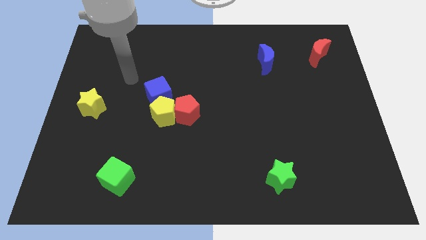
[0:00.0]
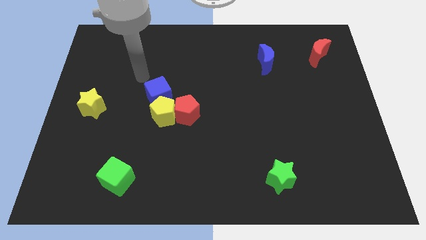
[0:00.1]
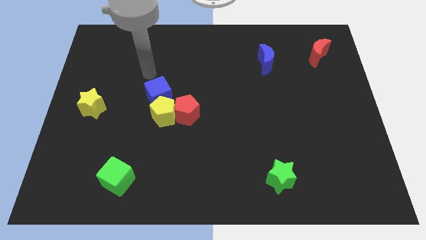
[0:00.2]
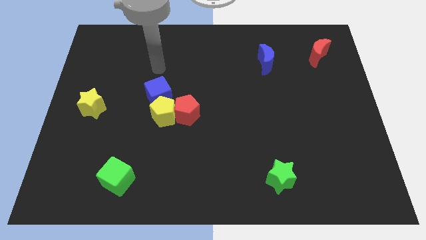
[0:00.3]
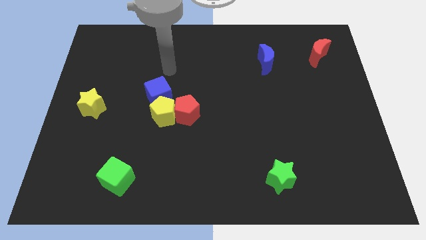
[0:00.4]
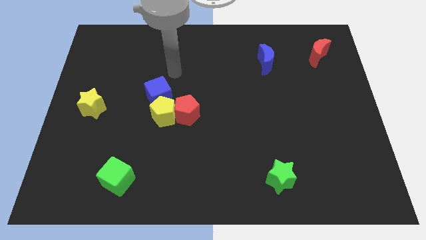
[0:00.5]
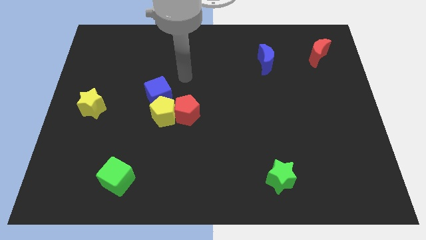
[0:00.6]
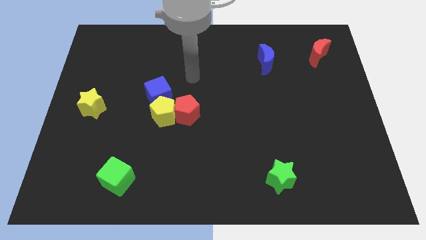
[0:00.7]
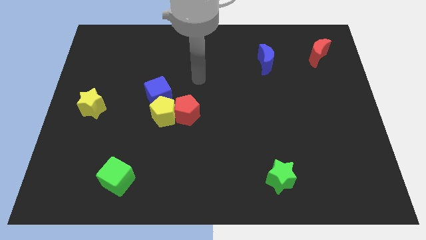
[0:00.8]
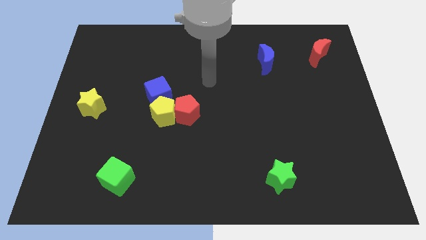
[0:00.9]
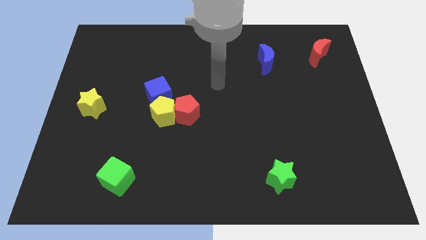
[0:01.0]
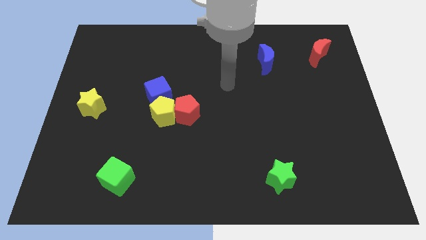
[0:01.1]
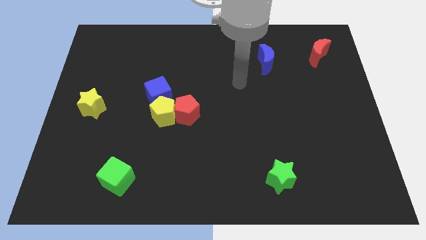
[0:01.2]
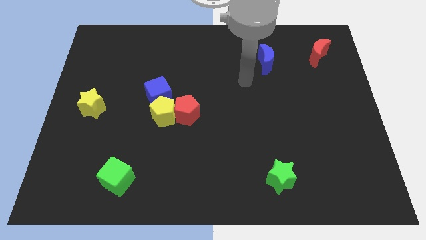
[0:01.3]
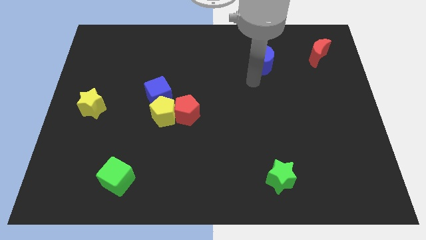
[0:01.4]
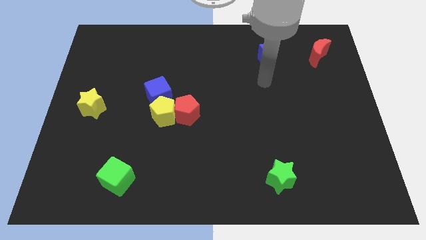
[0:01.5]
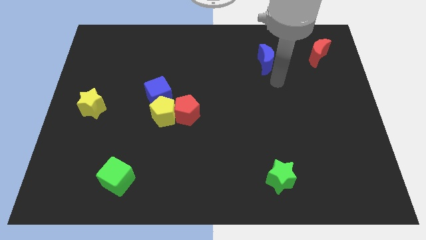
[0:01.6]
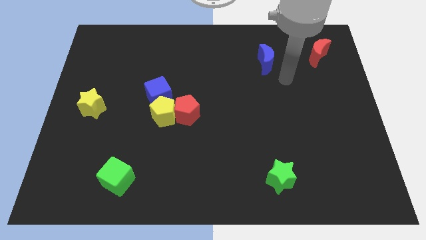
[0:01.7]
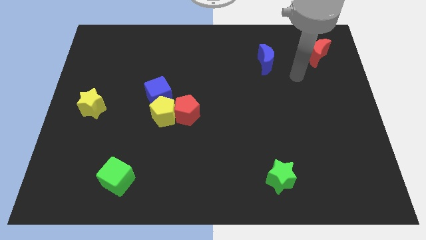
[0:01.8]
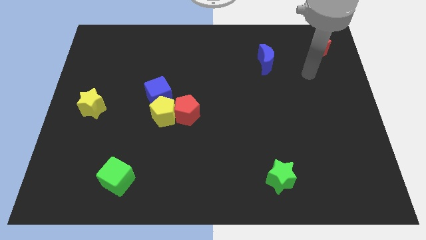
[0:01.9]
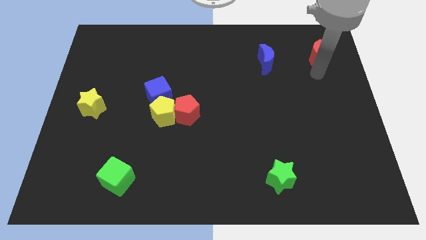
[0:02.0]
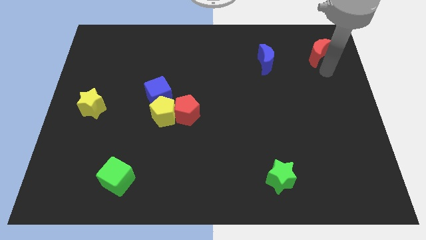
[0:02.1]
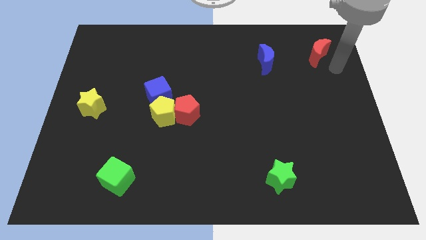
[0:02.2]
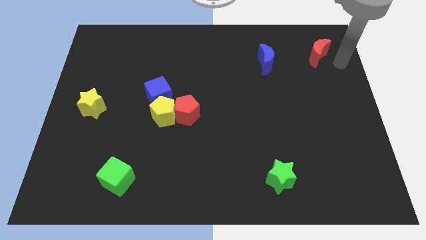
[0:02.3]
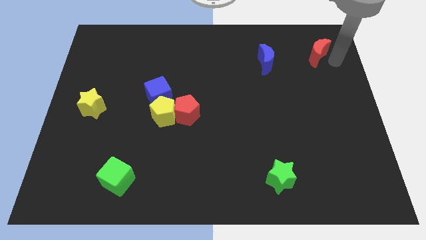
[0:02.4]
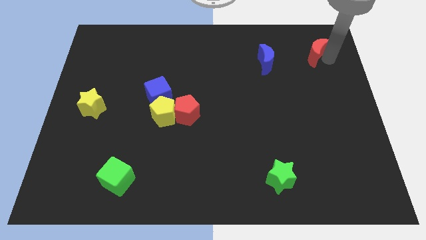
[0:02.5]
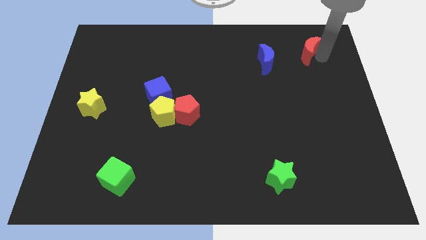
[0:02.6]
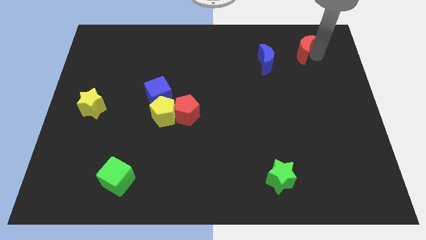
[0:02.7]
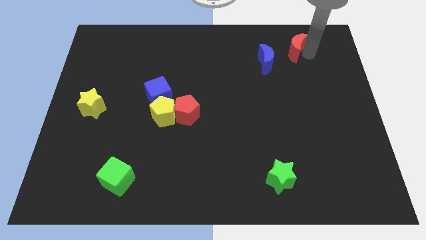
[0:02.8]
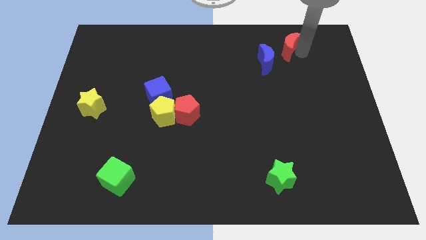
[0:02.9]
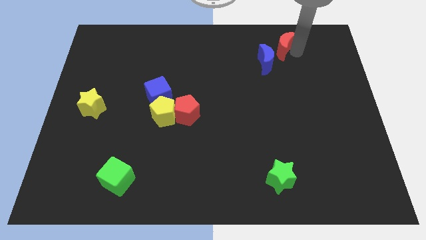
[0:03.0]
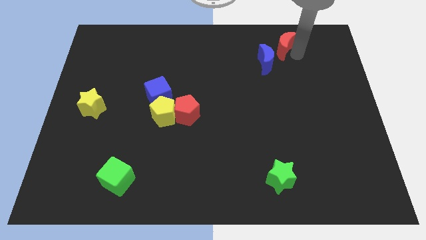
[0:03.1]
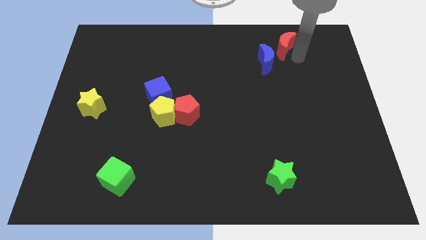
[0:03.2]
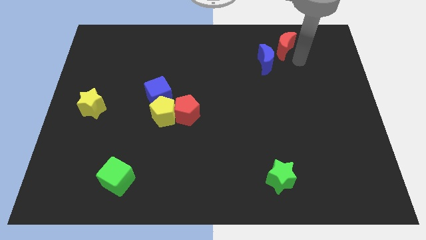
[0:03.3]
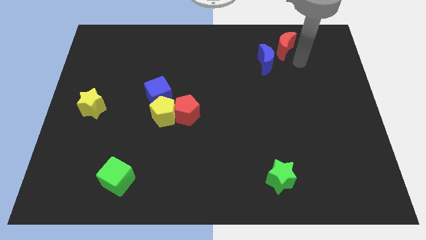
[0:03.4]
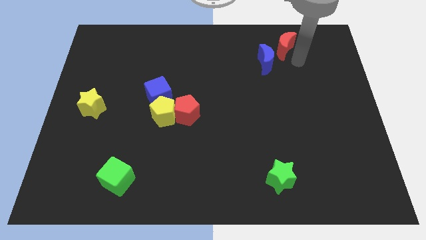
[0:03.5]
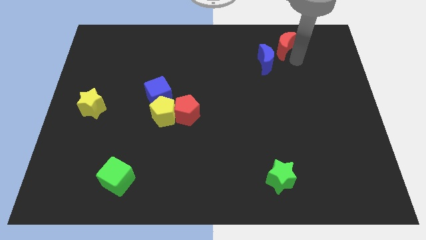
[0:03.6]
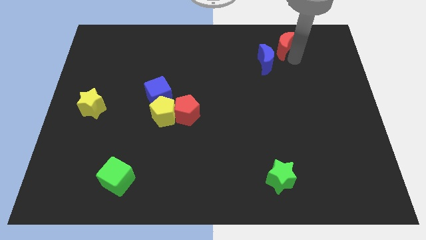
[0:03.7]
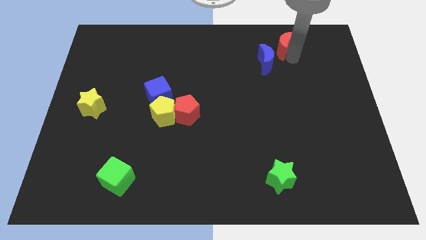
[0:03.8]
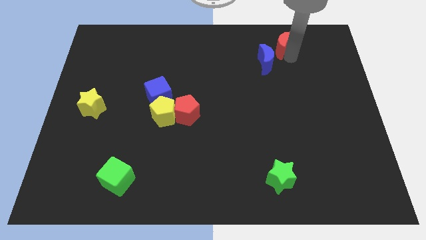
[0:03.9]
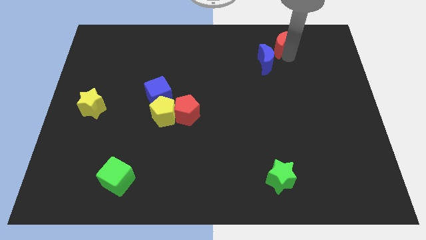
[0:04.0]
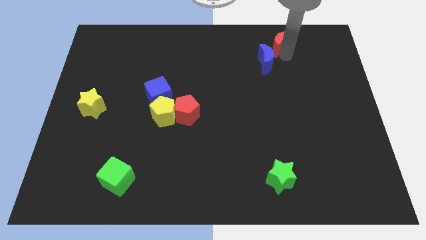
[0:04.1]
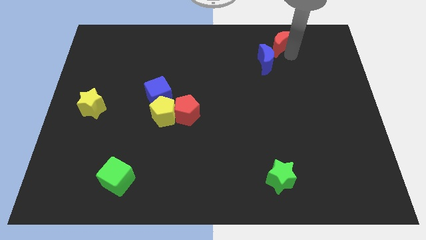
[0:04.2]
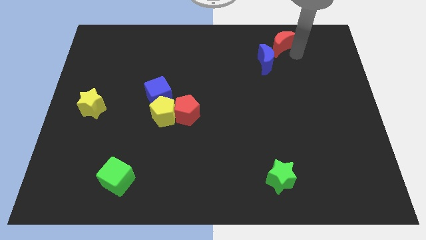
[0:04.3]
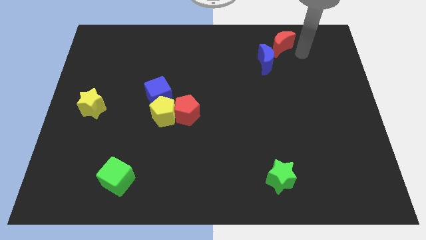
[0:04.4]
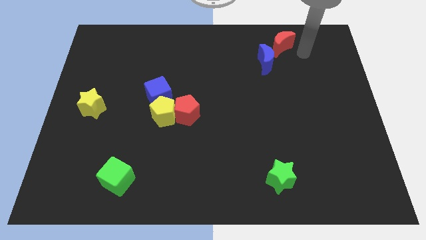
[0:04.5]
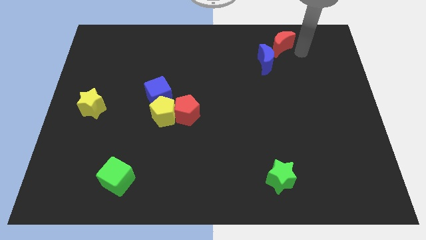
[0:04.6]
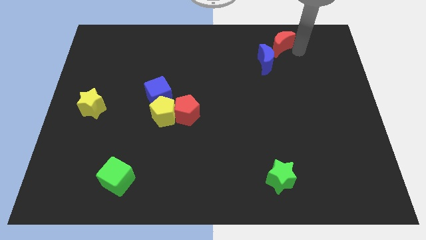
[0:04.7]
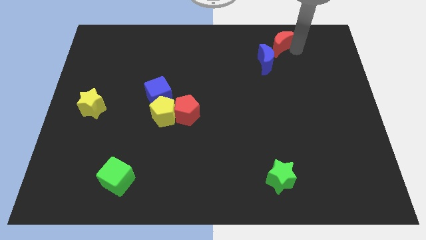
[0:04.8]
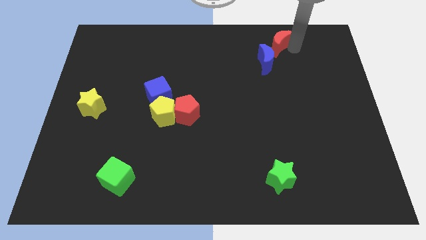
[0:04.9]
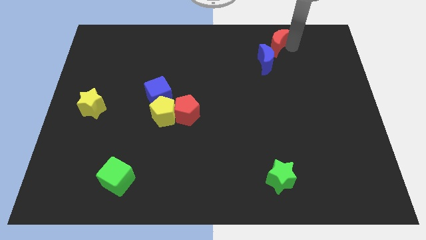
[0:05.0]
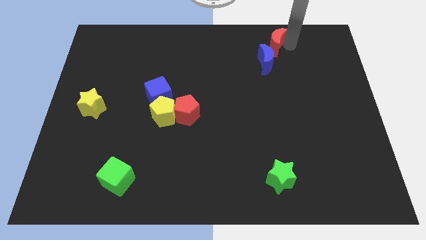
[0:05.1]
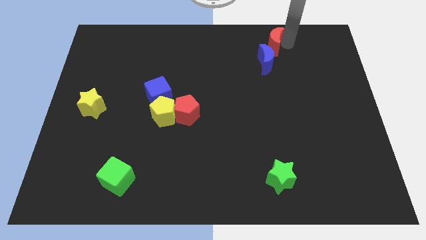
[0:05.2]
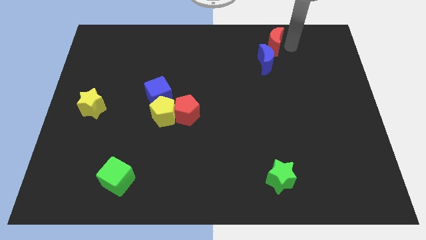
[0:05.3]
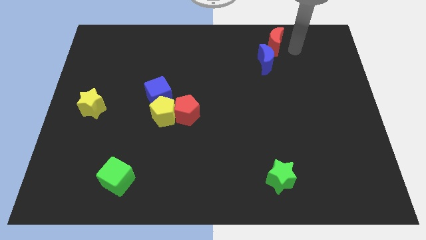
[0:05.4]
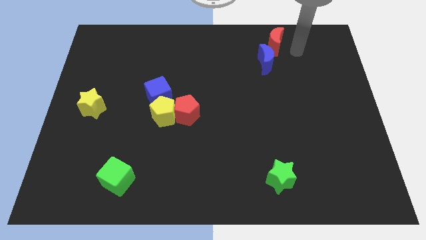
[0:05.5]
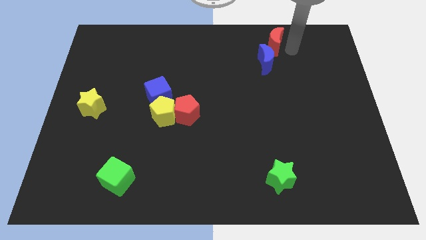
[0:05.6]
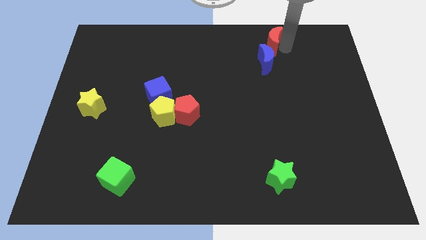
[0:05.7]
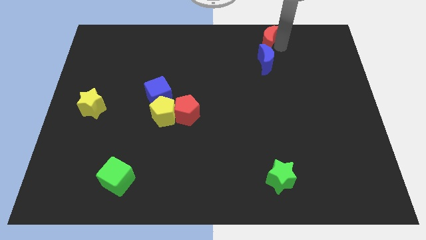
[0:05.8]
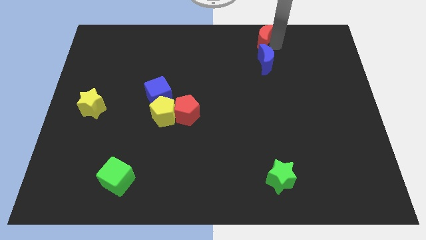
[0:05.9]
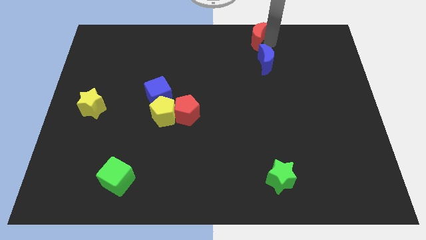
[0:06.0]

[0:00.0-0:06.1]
push the red moon to the top
